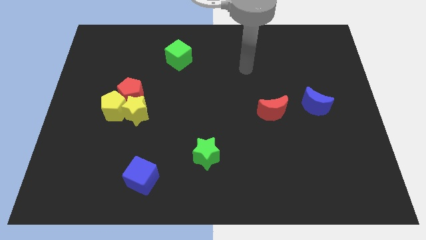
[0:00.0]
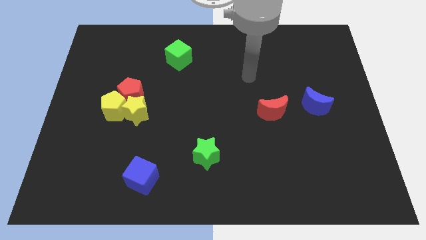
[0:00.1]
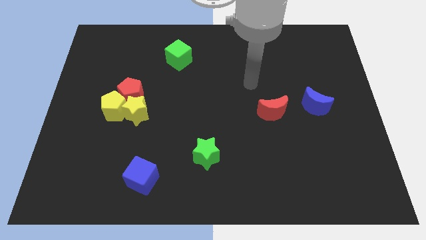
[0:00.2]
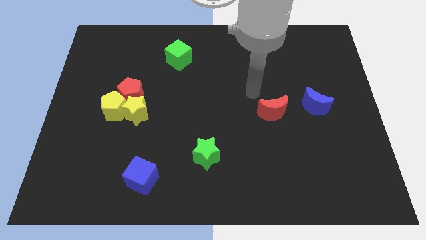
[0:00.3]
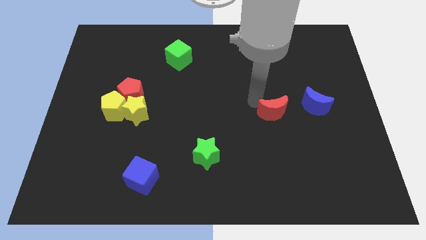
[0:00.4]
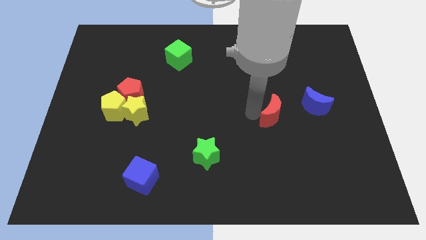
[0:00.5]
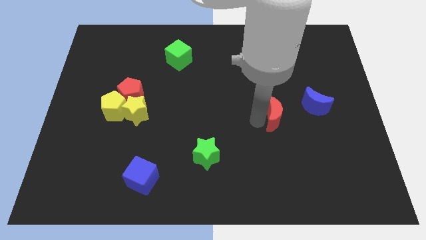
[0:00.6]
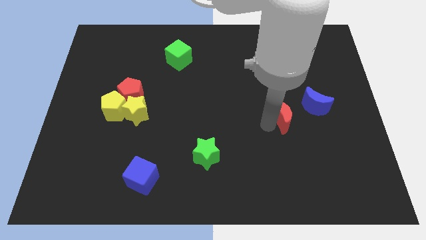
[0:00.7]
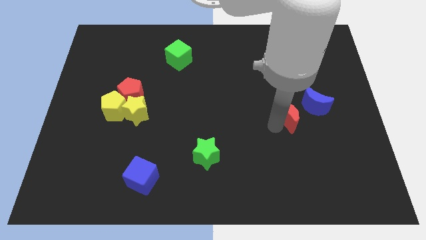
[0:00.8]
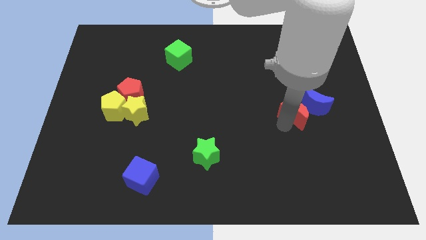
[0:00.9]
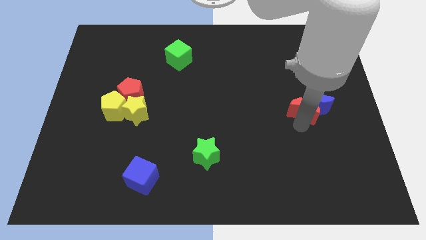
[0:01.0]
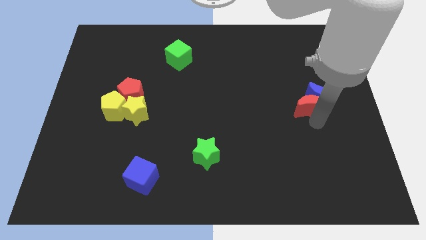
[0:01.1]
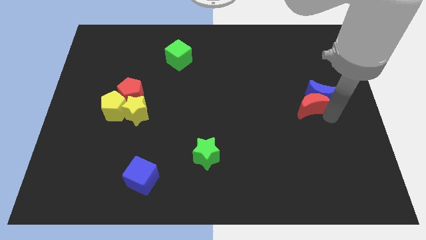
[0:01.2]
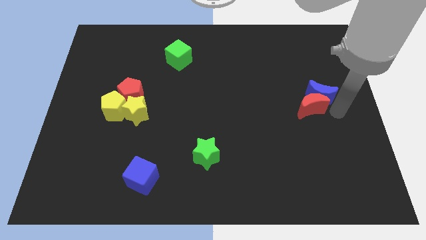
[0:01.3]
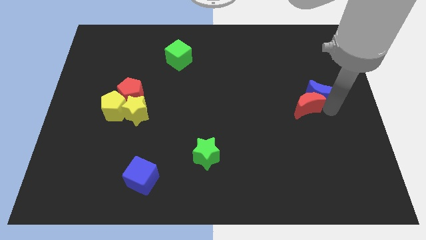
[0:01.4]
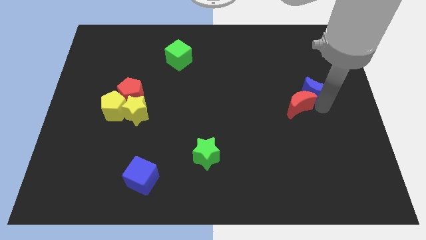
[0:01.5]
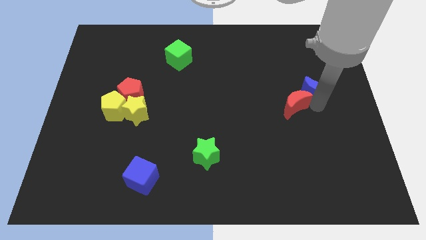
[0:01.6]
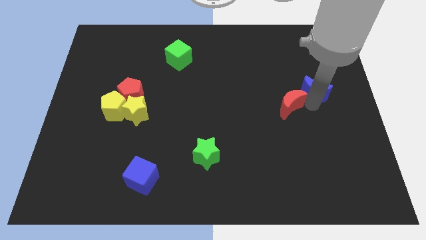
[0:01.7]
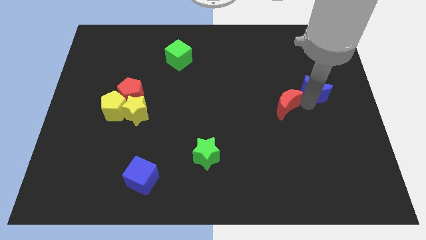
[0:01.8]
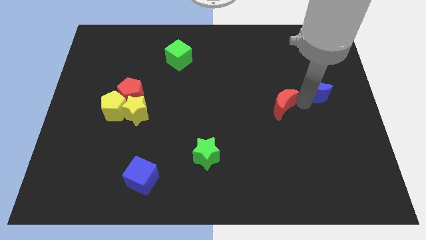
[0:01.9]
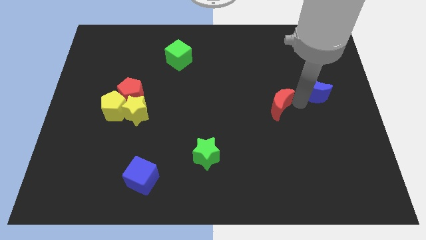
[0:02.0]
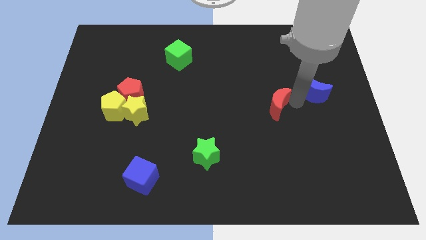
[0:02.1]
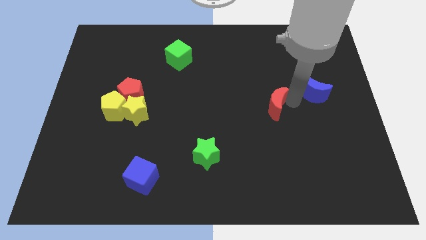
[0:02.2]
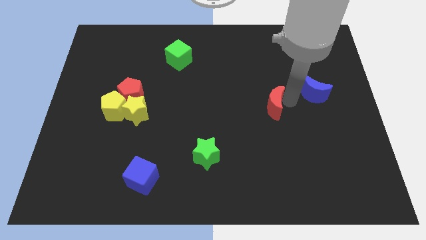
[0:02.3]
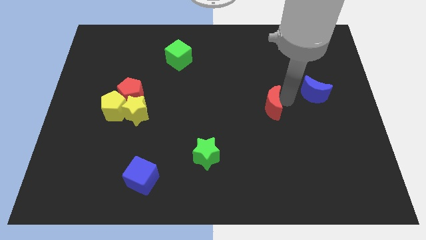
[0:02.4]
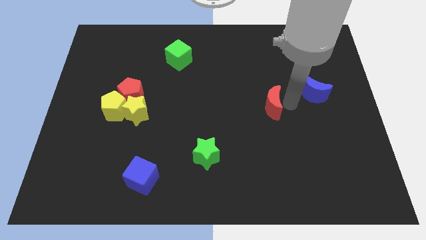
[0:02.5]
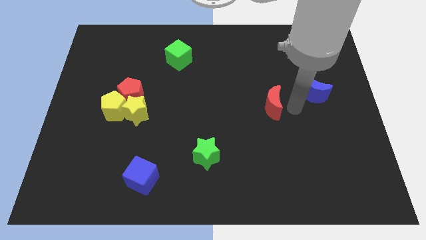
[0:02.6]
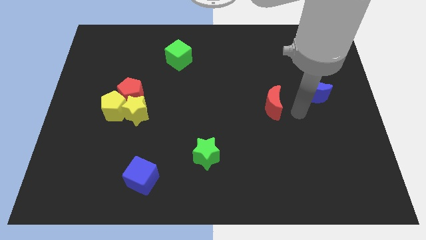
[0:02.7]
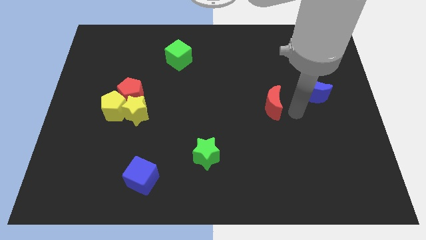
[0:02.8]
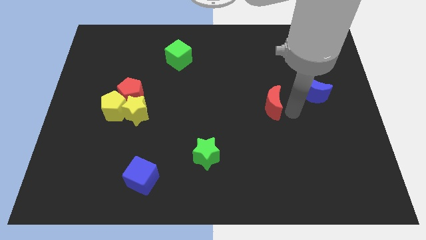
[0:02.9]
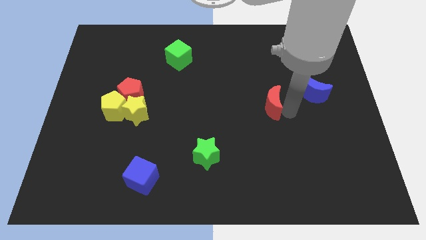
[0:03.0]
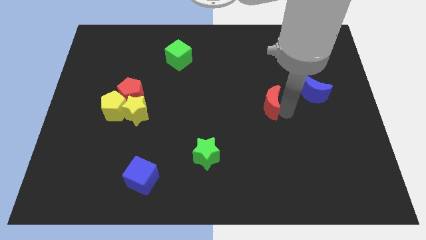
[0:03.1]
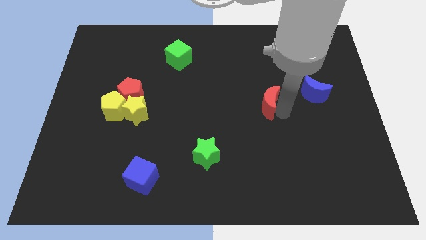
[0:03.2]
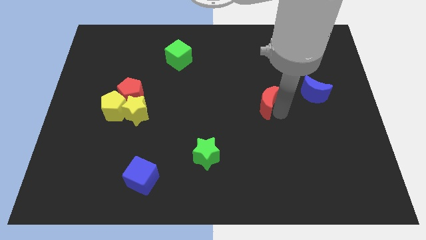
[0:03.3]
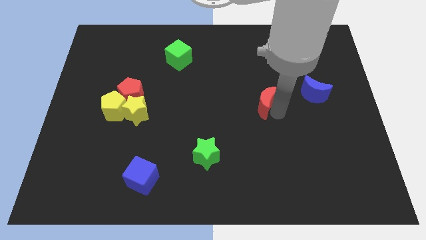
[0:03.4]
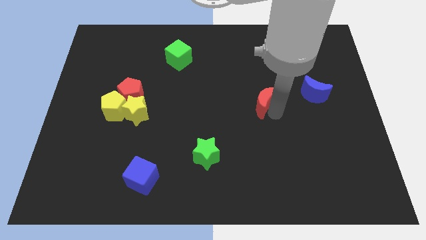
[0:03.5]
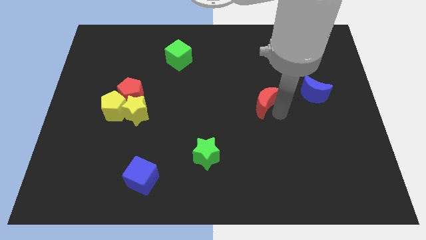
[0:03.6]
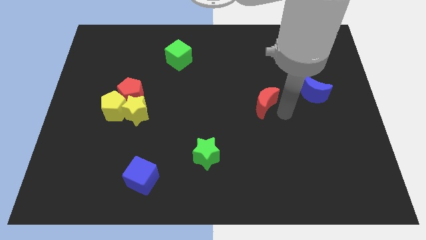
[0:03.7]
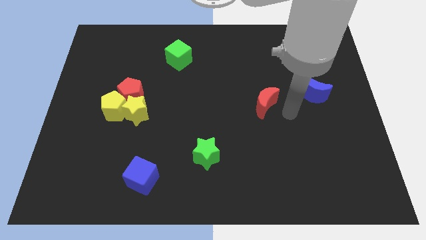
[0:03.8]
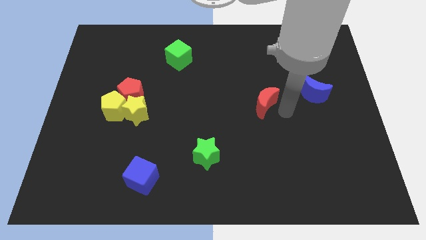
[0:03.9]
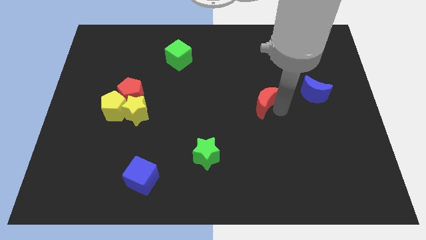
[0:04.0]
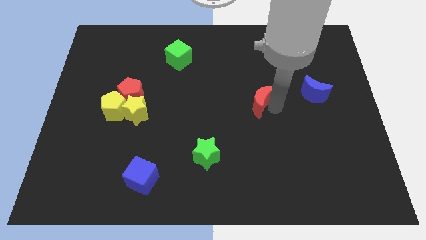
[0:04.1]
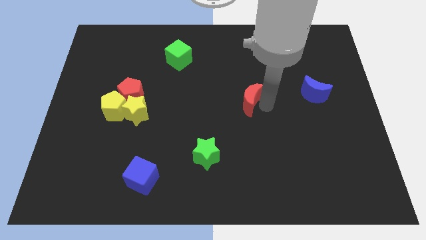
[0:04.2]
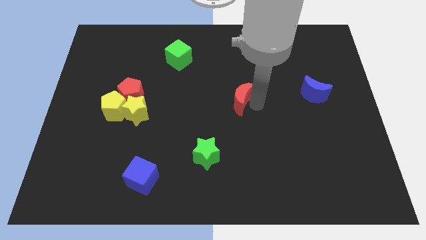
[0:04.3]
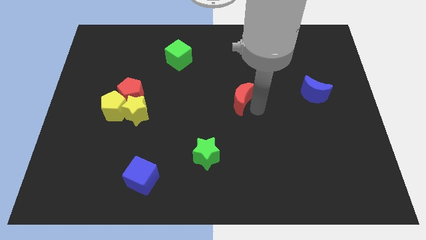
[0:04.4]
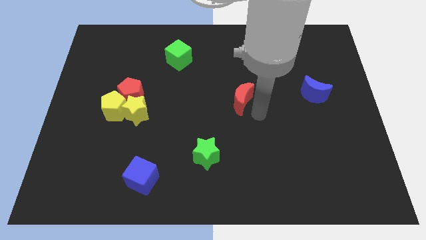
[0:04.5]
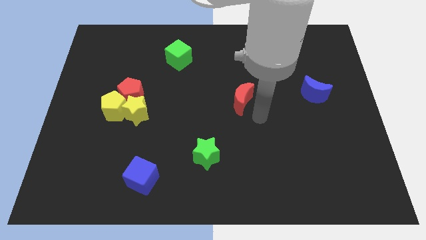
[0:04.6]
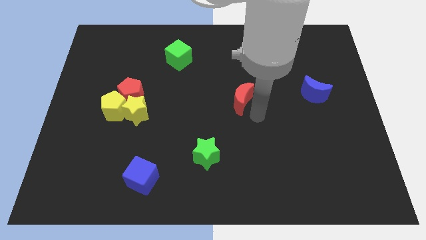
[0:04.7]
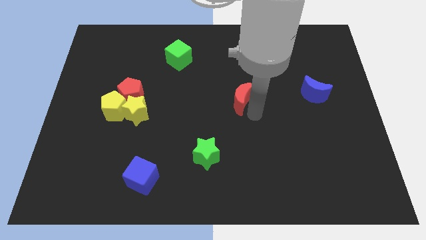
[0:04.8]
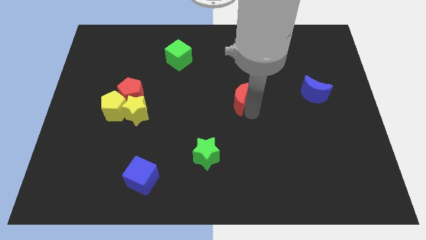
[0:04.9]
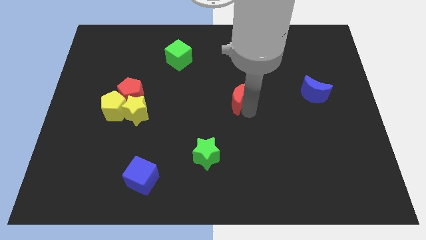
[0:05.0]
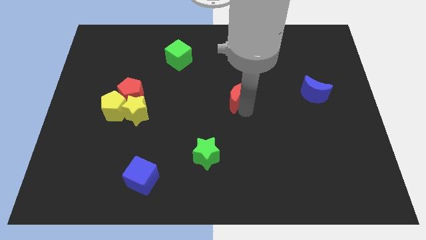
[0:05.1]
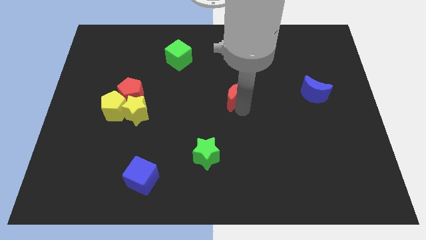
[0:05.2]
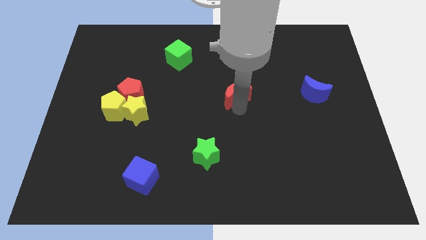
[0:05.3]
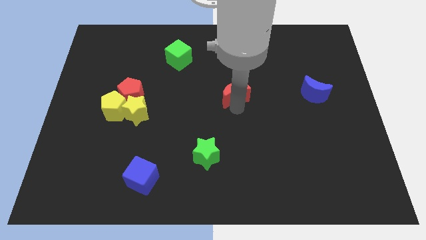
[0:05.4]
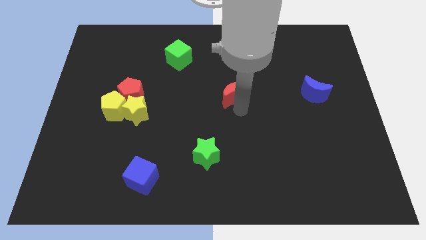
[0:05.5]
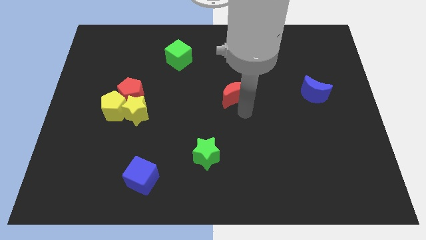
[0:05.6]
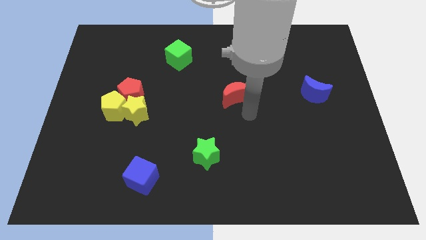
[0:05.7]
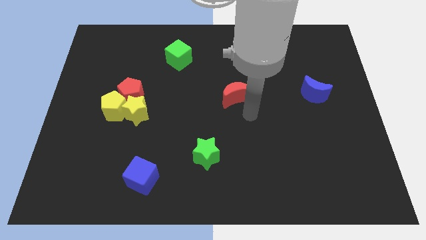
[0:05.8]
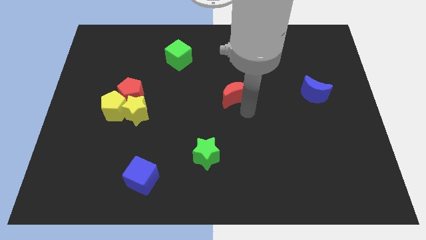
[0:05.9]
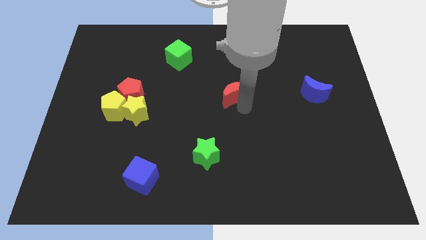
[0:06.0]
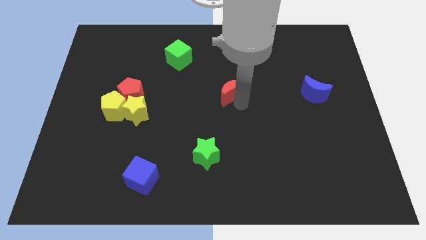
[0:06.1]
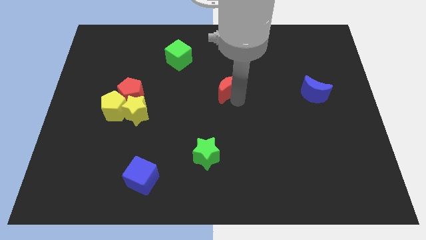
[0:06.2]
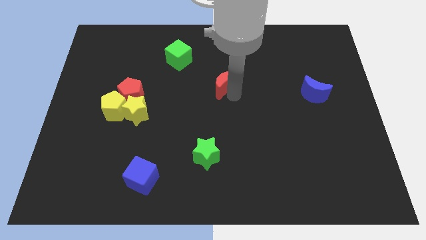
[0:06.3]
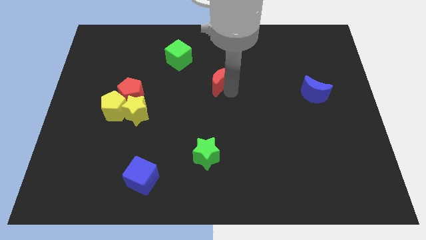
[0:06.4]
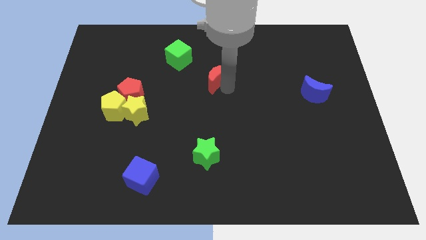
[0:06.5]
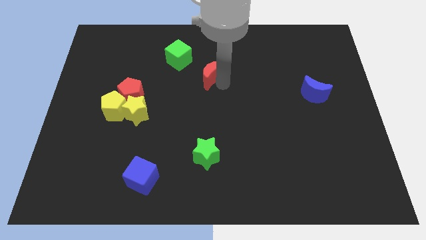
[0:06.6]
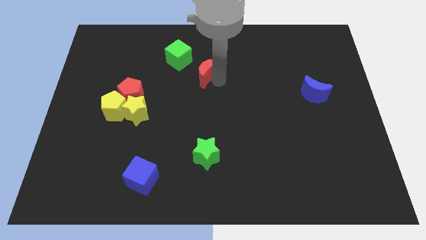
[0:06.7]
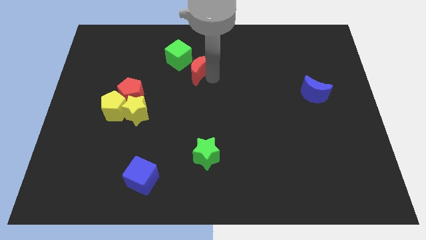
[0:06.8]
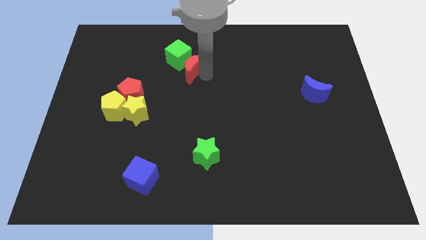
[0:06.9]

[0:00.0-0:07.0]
put the red moon to the green cube
